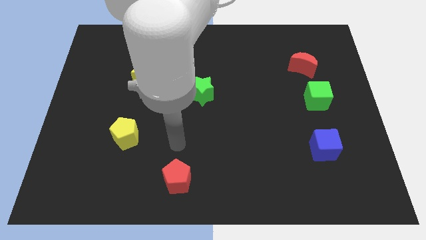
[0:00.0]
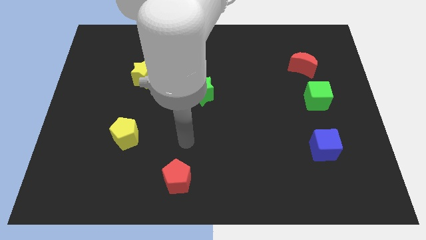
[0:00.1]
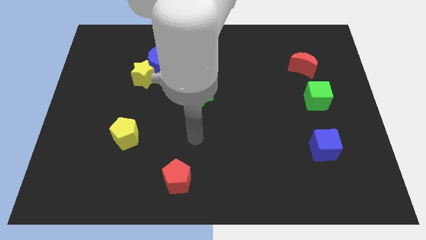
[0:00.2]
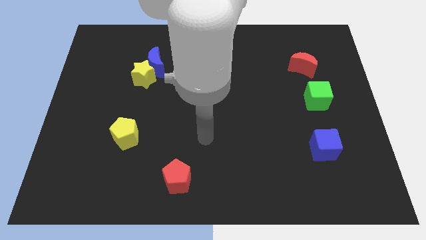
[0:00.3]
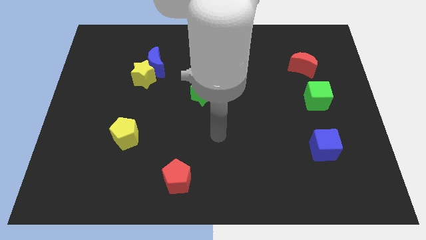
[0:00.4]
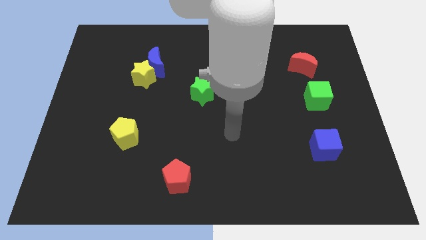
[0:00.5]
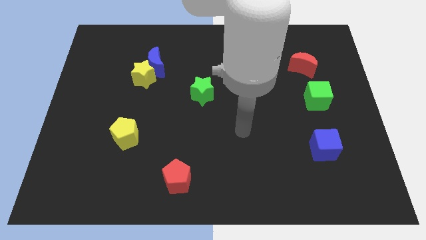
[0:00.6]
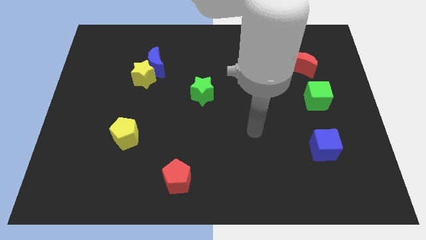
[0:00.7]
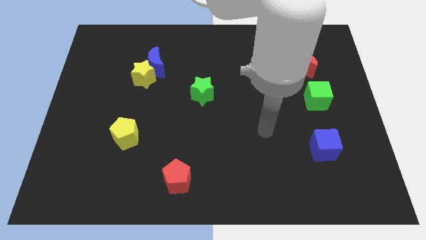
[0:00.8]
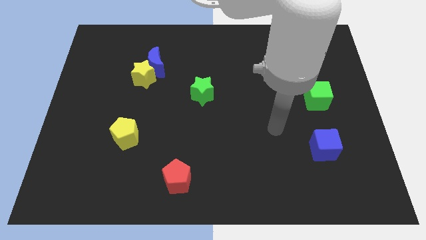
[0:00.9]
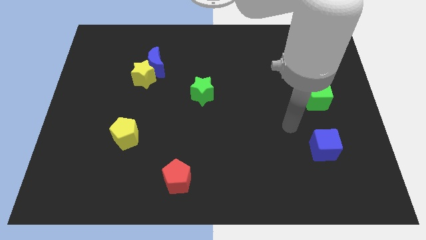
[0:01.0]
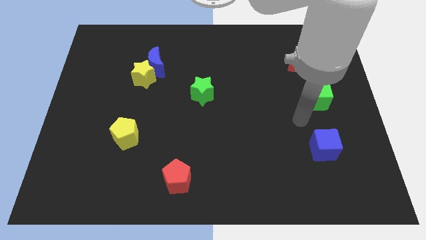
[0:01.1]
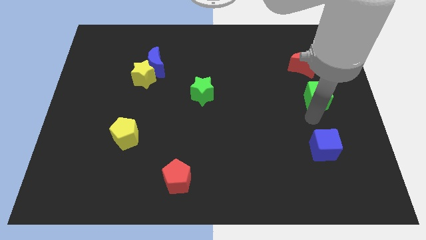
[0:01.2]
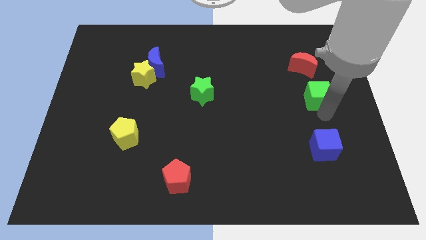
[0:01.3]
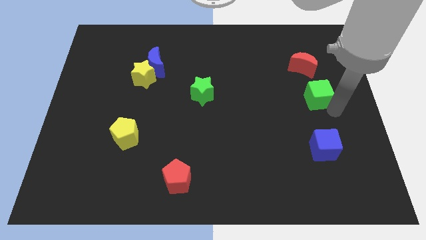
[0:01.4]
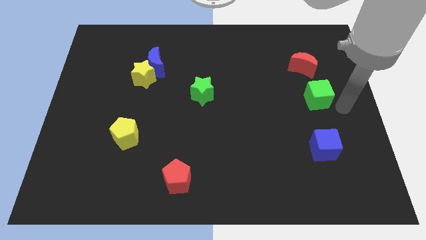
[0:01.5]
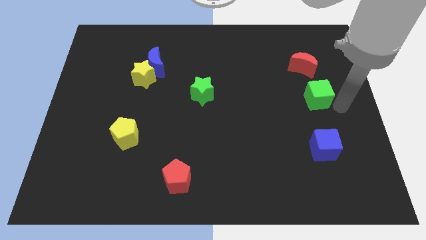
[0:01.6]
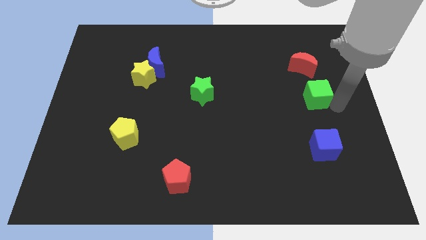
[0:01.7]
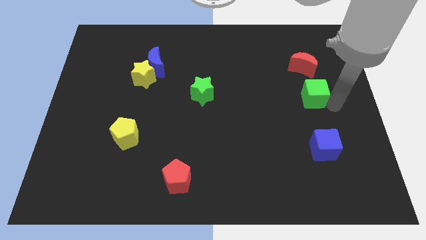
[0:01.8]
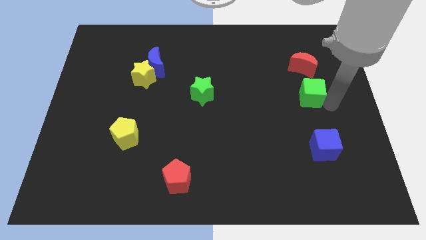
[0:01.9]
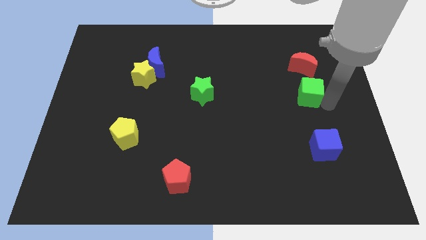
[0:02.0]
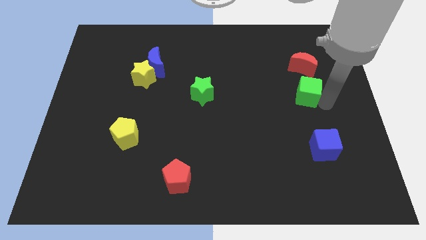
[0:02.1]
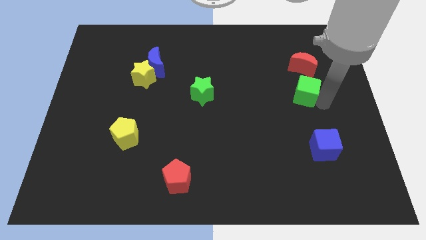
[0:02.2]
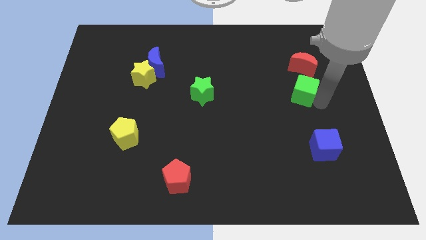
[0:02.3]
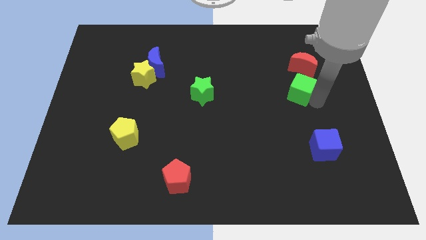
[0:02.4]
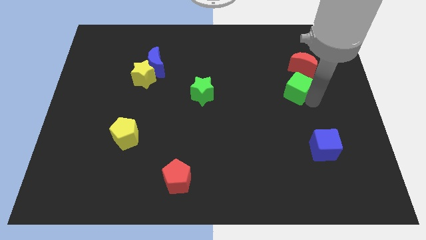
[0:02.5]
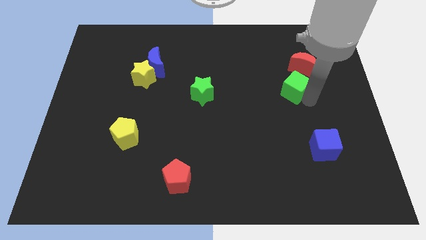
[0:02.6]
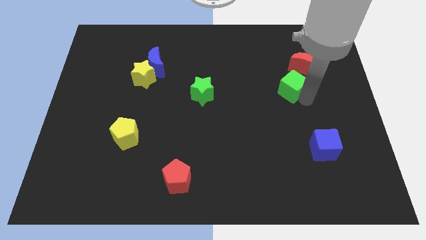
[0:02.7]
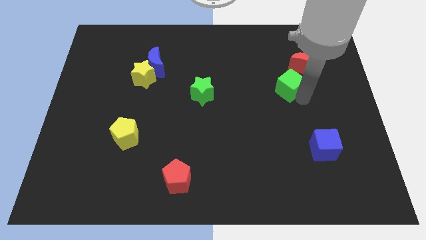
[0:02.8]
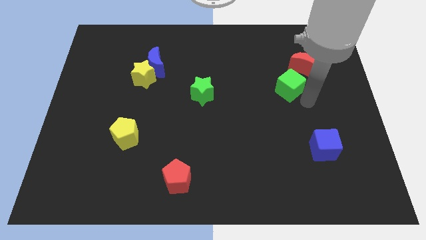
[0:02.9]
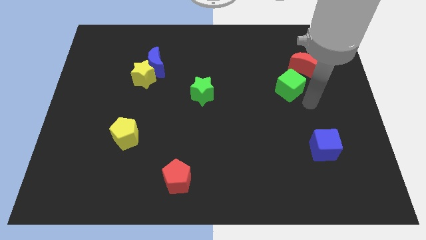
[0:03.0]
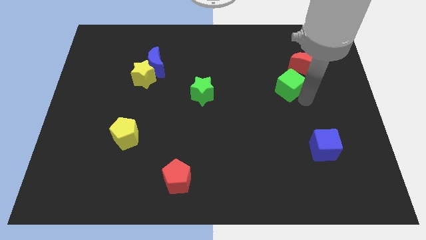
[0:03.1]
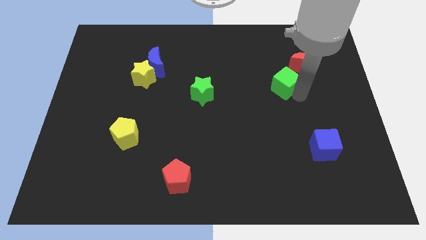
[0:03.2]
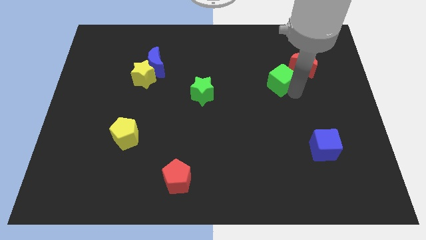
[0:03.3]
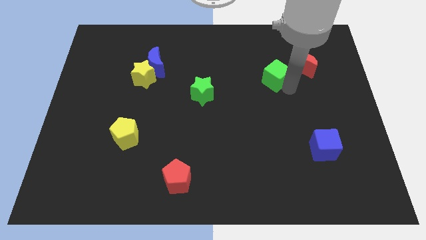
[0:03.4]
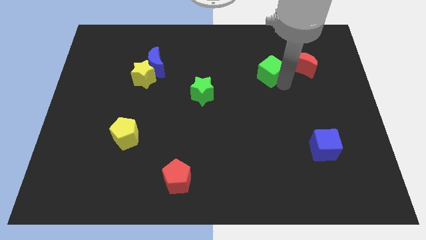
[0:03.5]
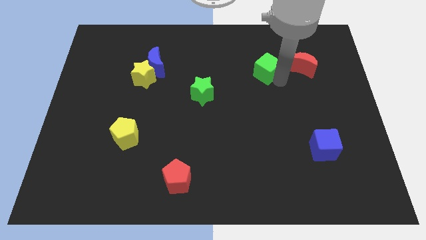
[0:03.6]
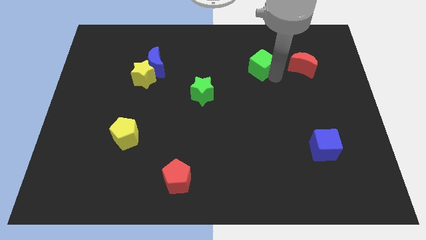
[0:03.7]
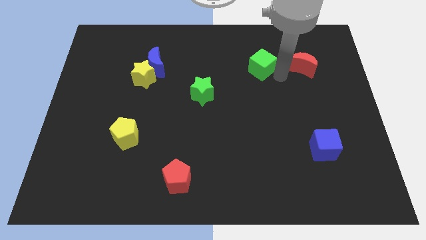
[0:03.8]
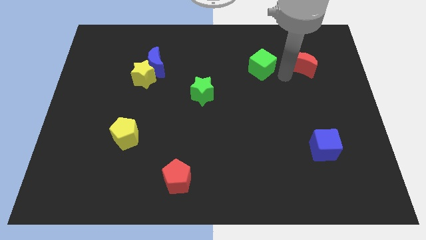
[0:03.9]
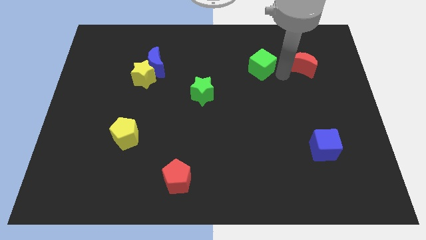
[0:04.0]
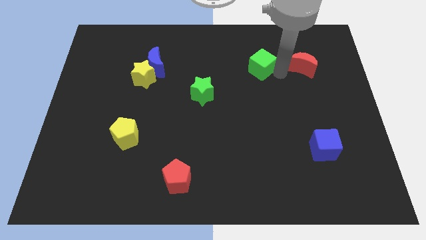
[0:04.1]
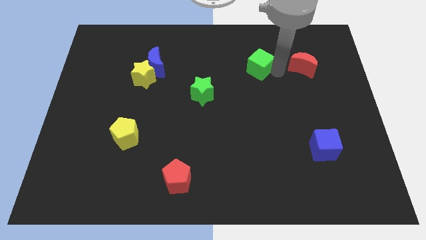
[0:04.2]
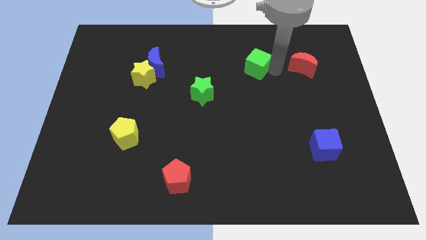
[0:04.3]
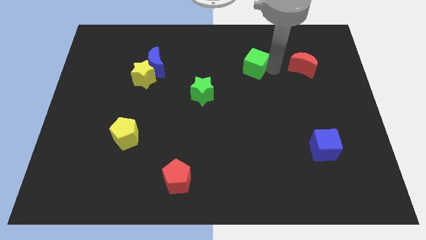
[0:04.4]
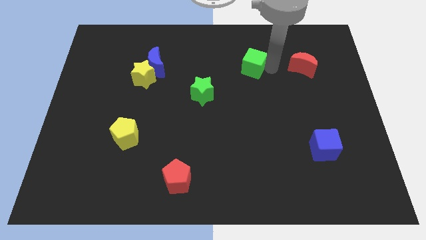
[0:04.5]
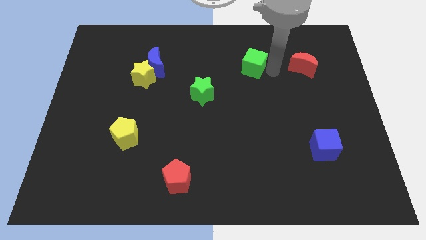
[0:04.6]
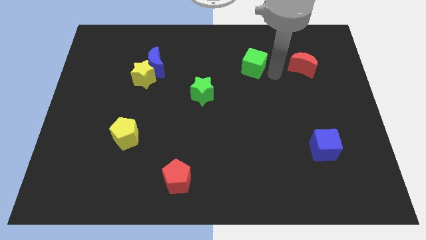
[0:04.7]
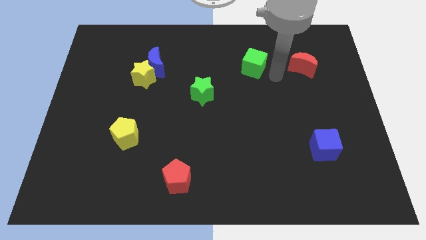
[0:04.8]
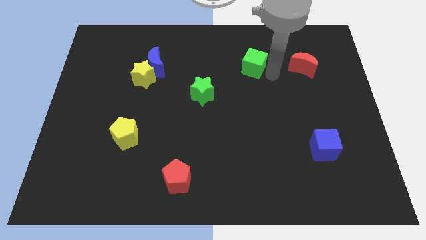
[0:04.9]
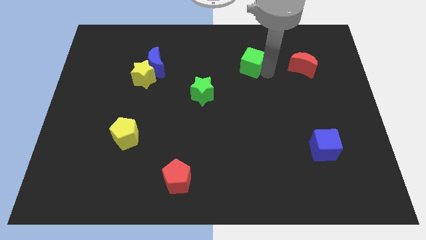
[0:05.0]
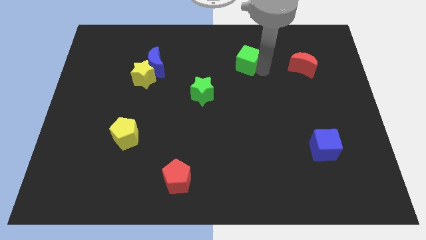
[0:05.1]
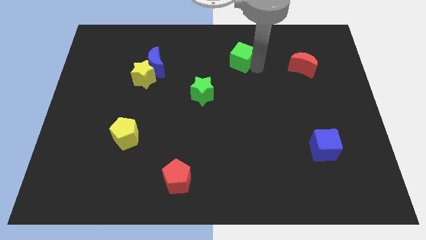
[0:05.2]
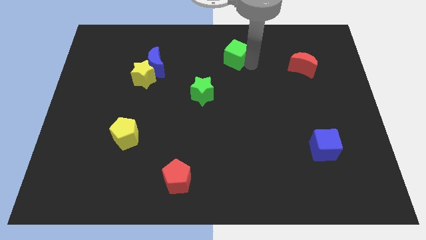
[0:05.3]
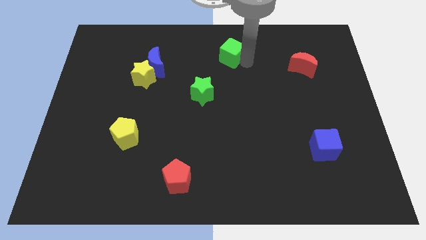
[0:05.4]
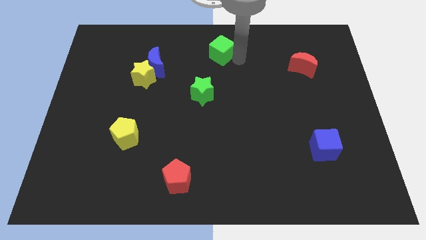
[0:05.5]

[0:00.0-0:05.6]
put the green cube to the top side
